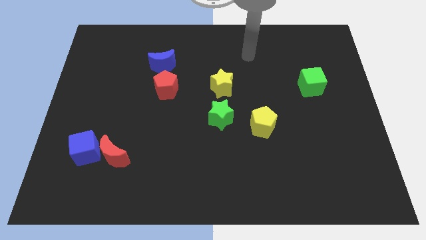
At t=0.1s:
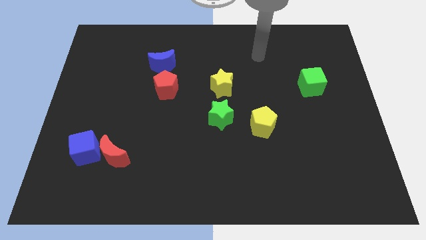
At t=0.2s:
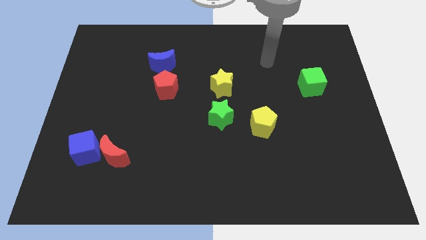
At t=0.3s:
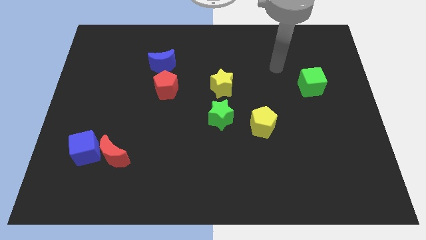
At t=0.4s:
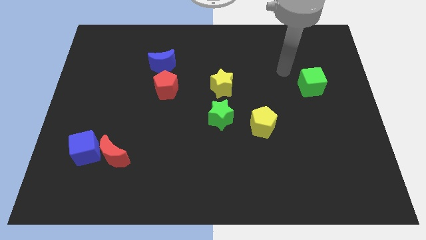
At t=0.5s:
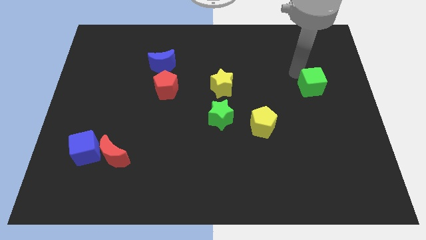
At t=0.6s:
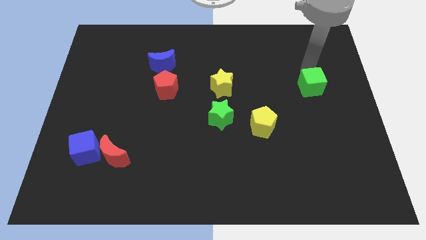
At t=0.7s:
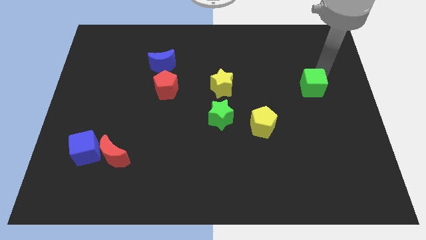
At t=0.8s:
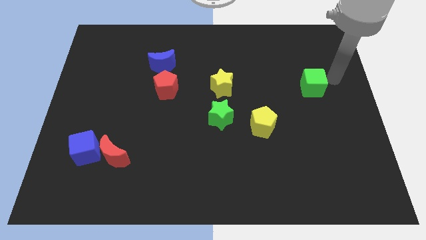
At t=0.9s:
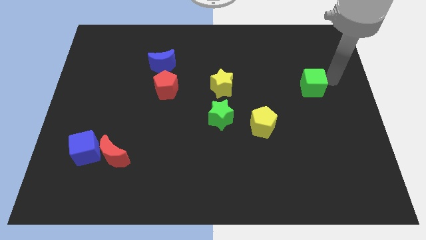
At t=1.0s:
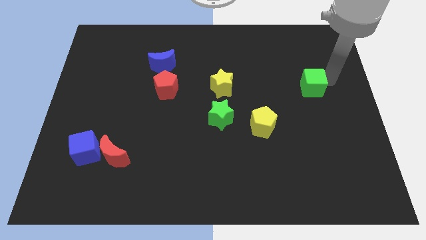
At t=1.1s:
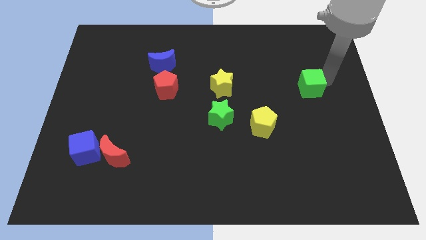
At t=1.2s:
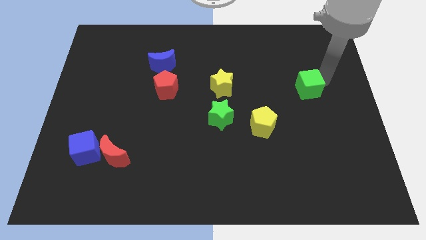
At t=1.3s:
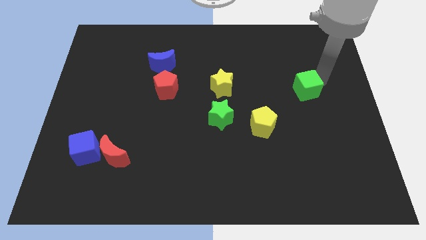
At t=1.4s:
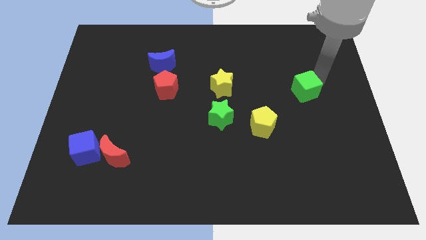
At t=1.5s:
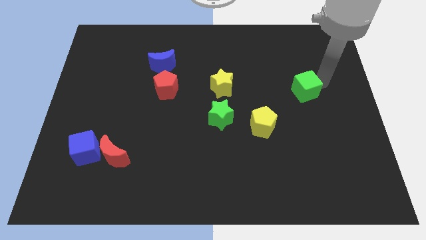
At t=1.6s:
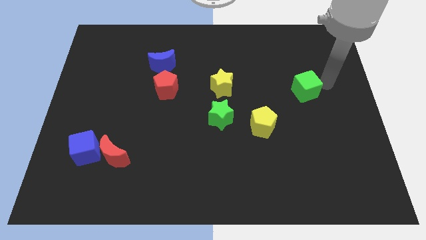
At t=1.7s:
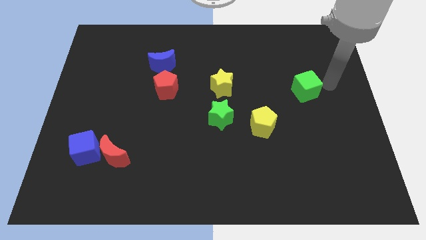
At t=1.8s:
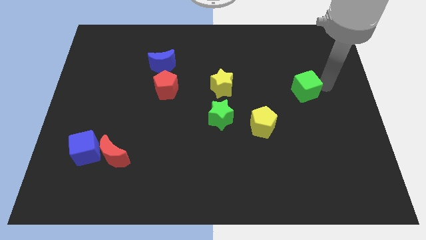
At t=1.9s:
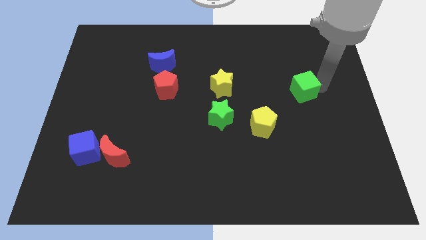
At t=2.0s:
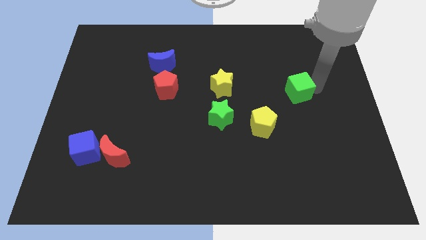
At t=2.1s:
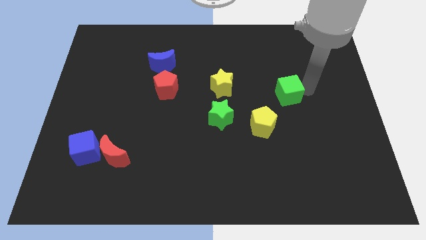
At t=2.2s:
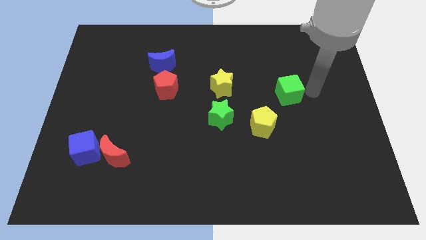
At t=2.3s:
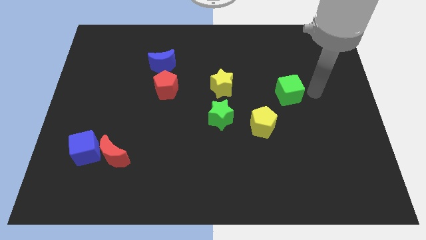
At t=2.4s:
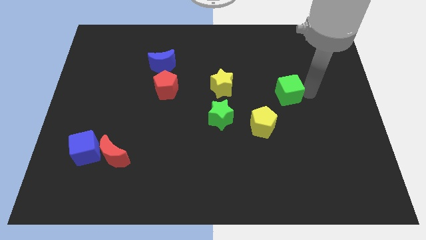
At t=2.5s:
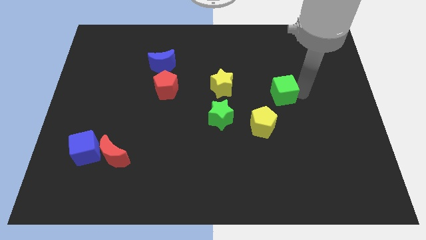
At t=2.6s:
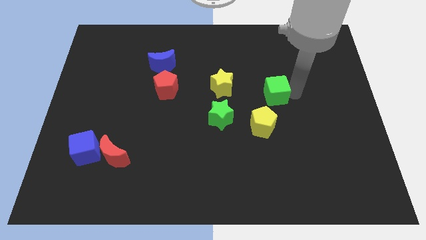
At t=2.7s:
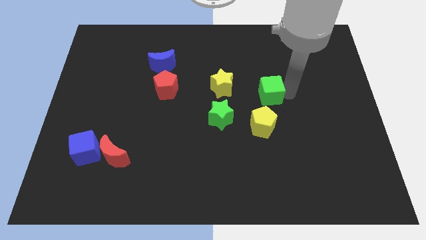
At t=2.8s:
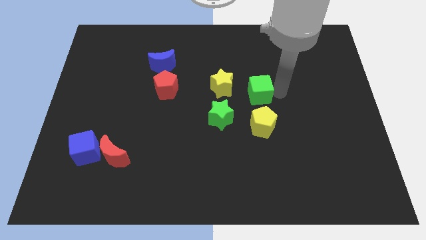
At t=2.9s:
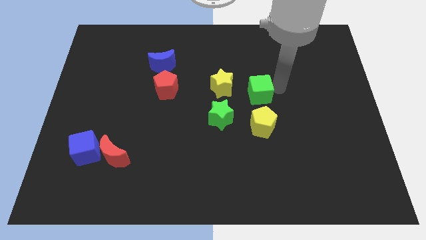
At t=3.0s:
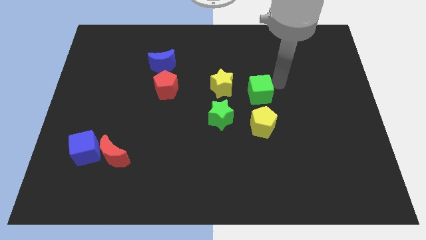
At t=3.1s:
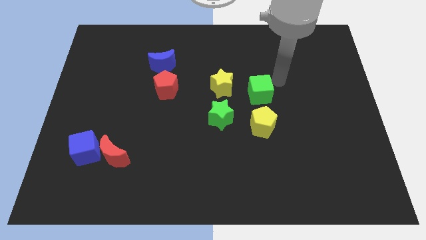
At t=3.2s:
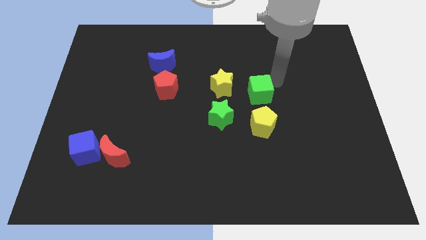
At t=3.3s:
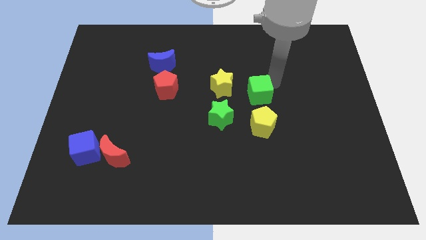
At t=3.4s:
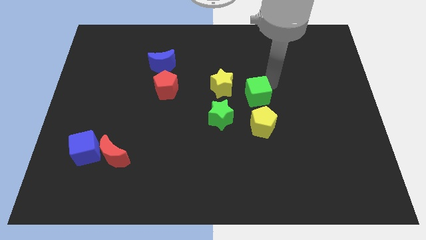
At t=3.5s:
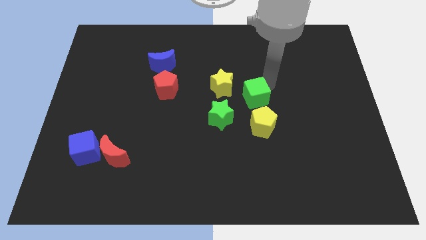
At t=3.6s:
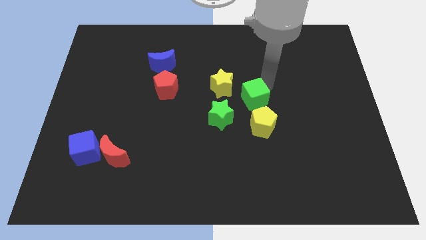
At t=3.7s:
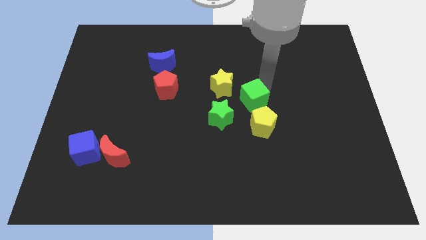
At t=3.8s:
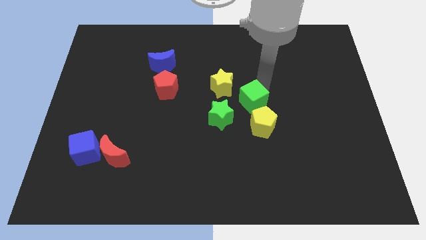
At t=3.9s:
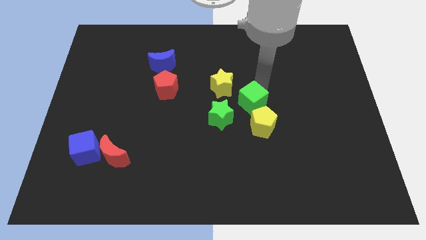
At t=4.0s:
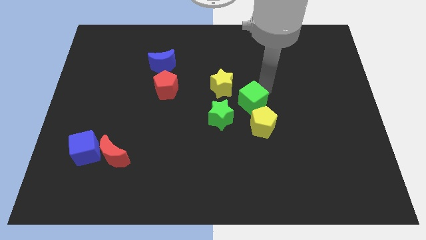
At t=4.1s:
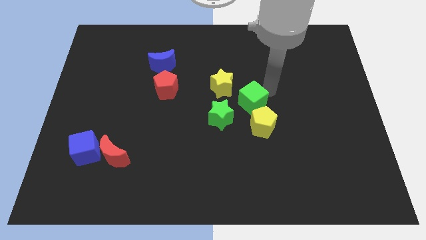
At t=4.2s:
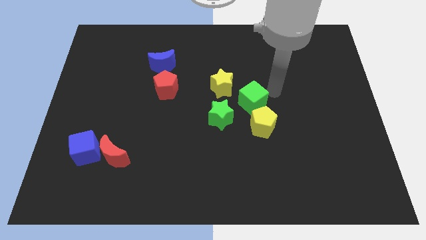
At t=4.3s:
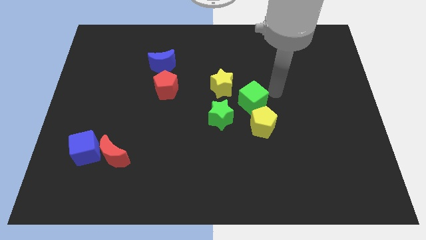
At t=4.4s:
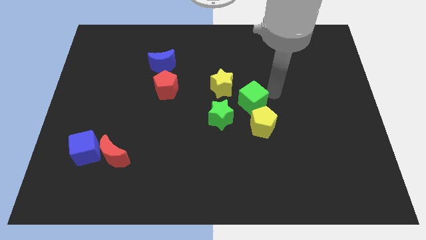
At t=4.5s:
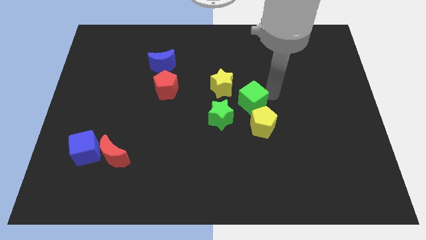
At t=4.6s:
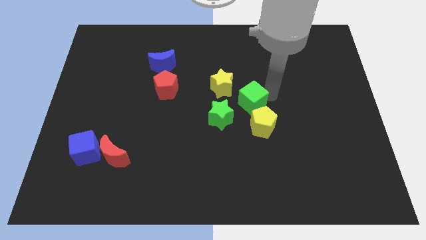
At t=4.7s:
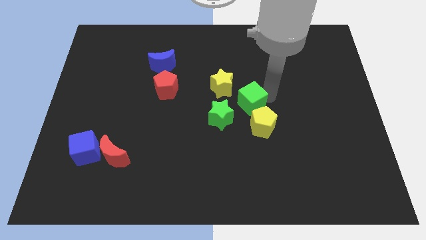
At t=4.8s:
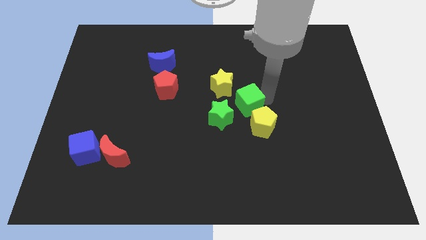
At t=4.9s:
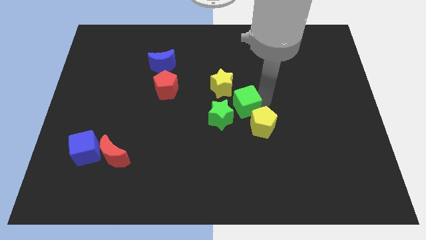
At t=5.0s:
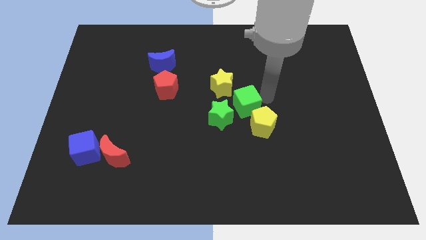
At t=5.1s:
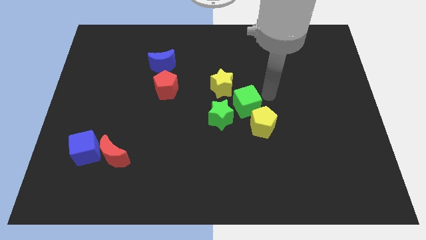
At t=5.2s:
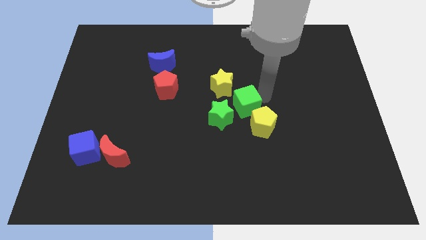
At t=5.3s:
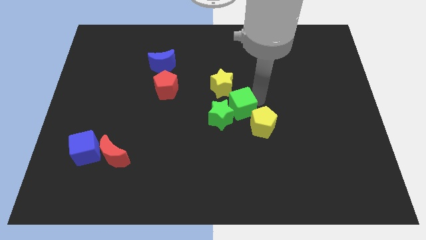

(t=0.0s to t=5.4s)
move the green cube next to the green star

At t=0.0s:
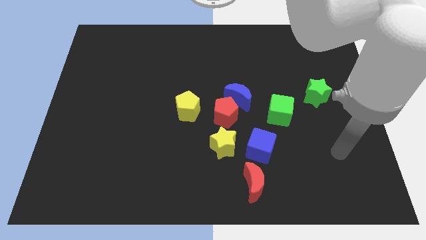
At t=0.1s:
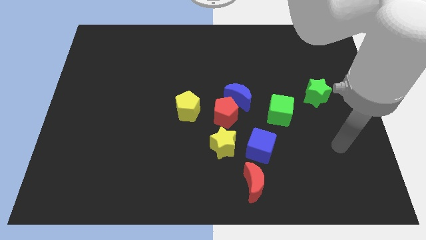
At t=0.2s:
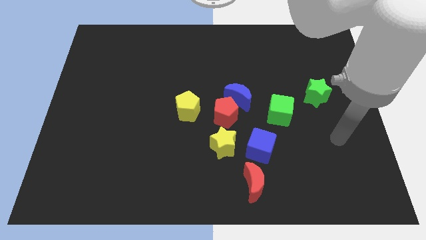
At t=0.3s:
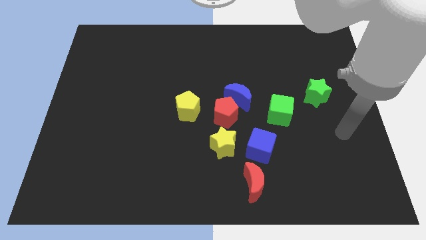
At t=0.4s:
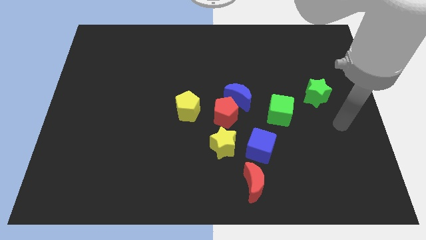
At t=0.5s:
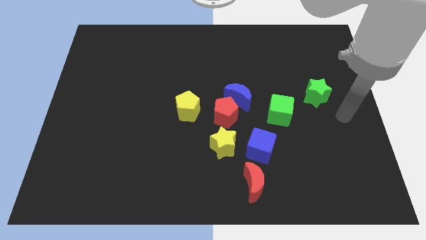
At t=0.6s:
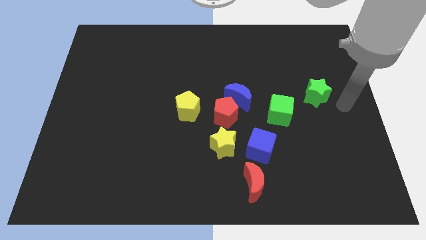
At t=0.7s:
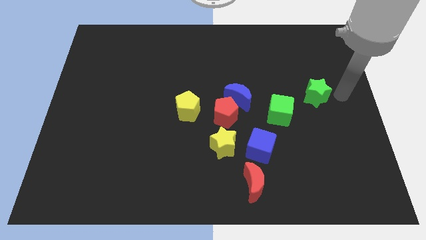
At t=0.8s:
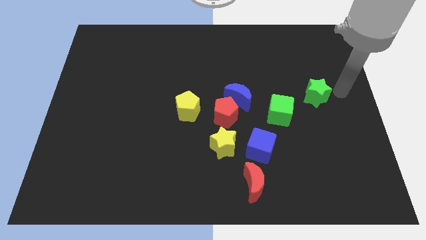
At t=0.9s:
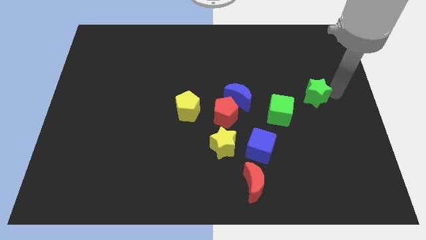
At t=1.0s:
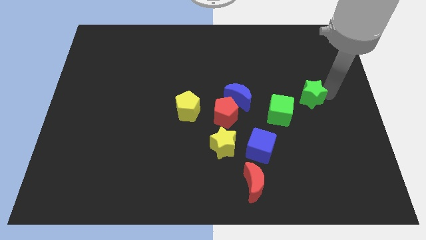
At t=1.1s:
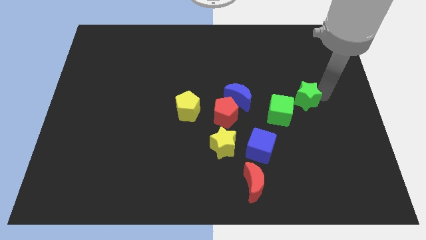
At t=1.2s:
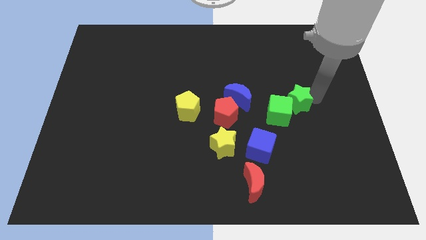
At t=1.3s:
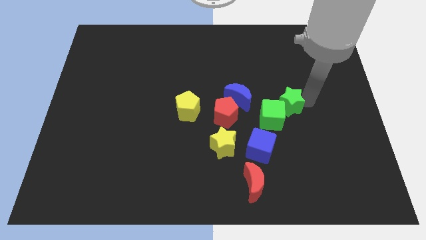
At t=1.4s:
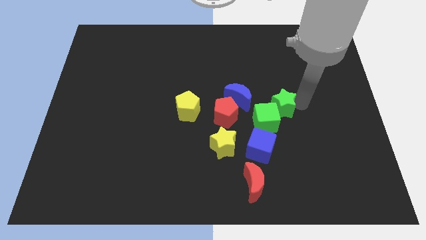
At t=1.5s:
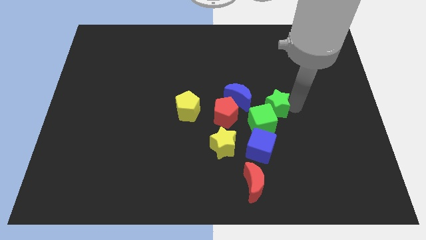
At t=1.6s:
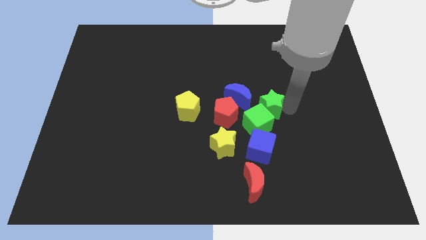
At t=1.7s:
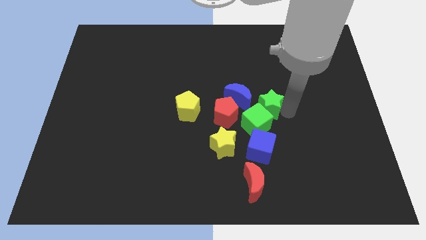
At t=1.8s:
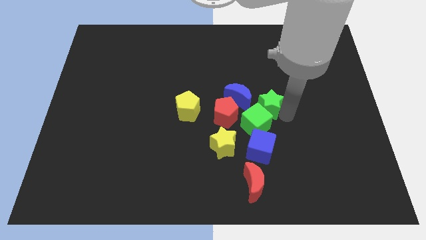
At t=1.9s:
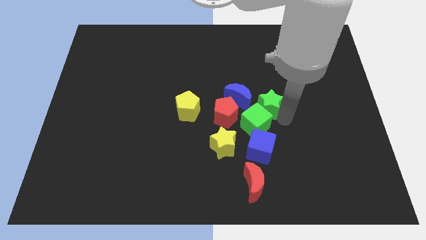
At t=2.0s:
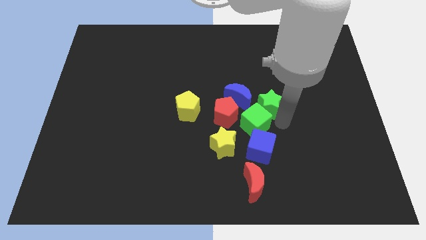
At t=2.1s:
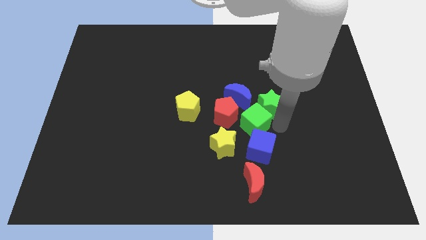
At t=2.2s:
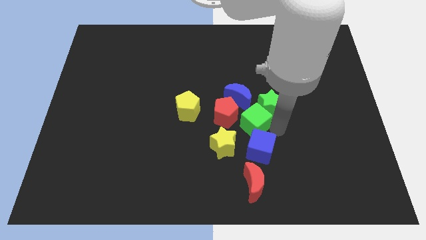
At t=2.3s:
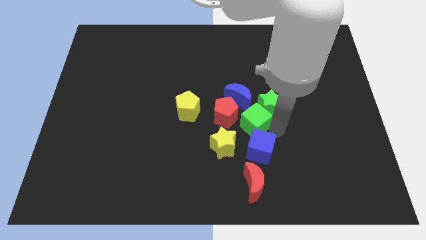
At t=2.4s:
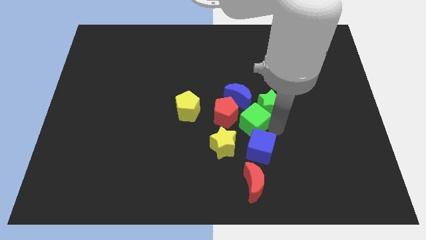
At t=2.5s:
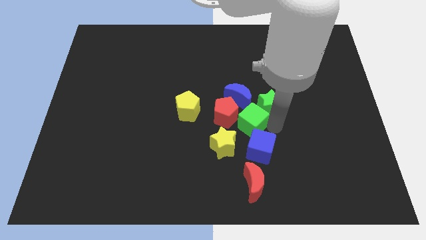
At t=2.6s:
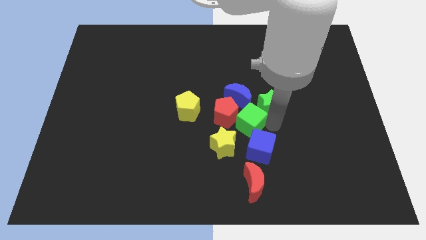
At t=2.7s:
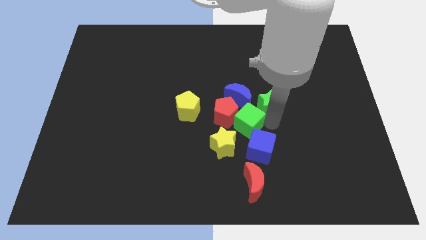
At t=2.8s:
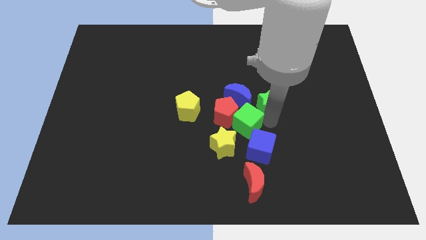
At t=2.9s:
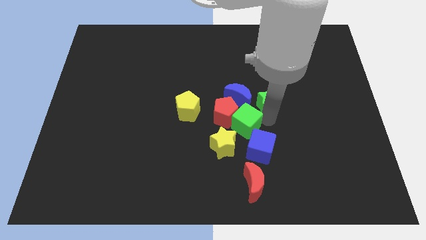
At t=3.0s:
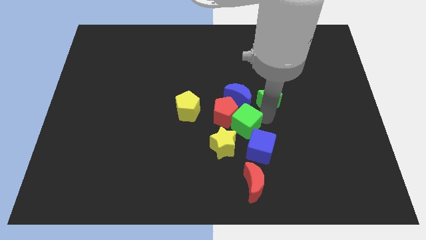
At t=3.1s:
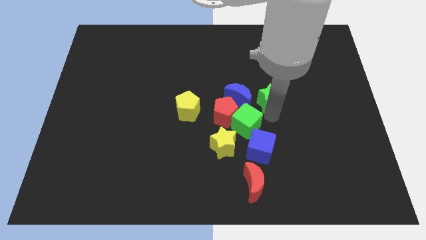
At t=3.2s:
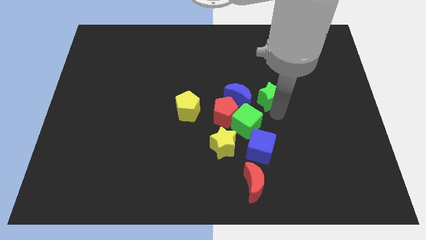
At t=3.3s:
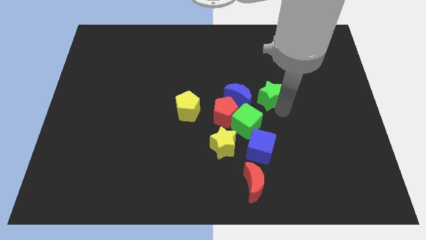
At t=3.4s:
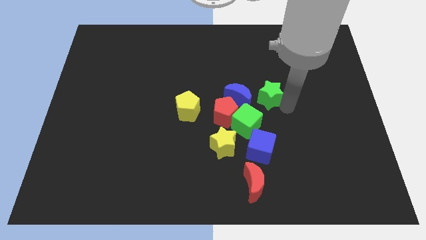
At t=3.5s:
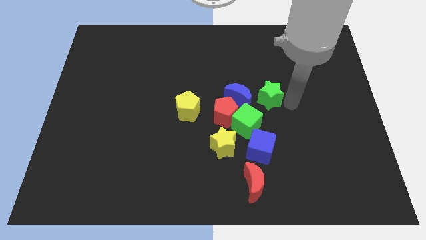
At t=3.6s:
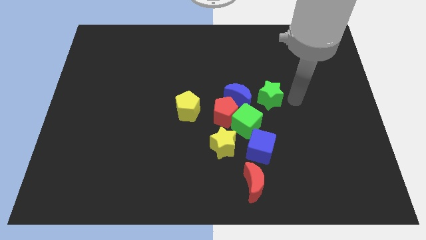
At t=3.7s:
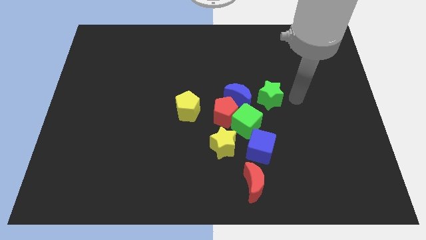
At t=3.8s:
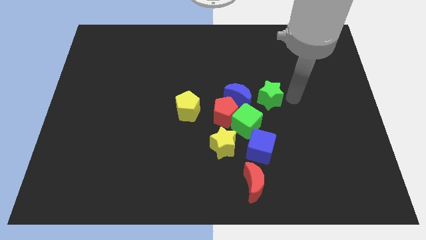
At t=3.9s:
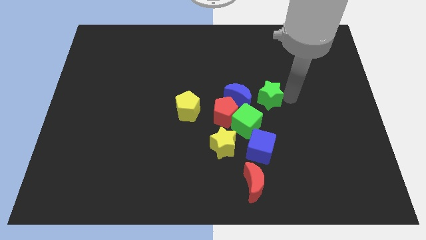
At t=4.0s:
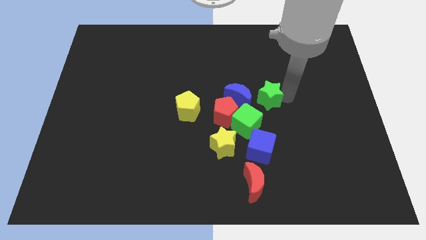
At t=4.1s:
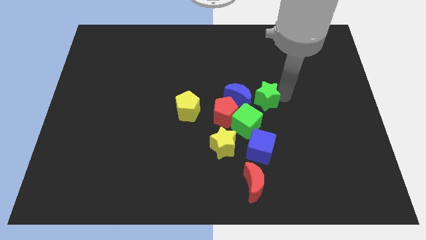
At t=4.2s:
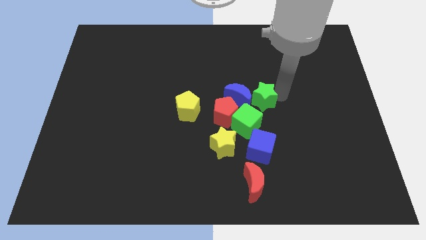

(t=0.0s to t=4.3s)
slide the green star to the blue moon
